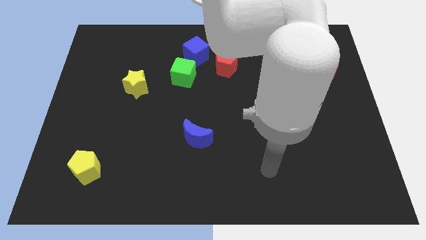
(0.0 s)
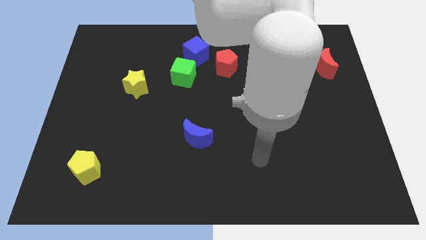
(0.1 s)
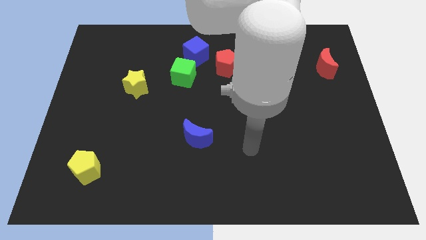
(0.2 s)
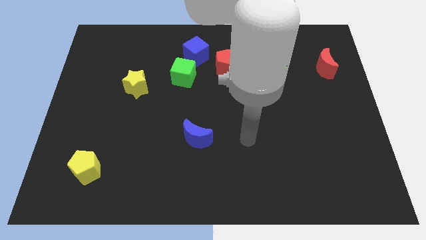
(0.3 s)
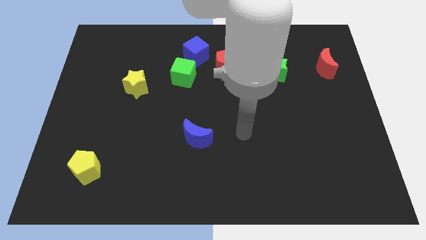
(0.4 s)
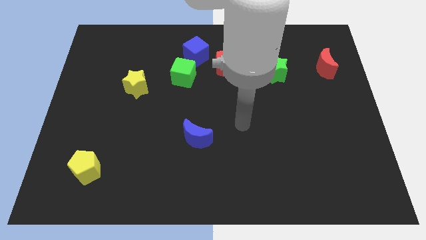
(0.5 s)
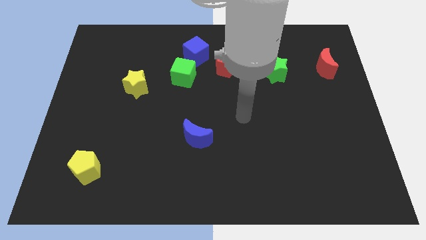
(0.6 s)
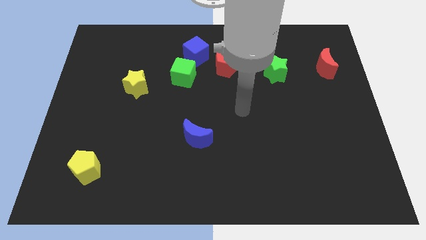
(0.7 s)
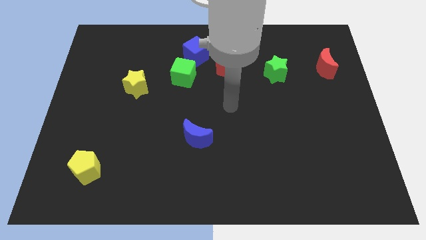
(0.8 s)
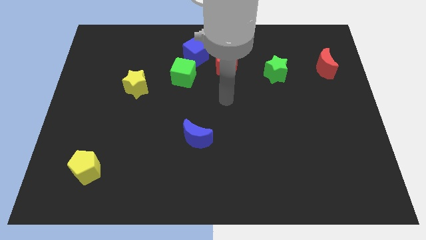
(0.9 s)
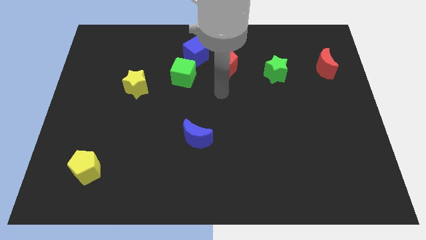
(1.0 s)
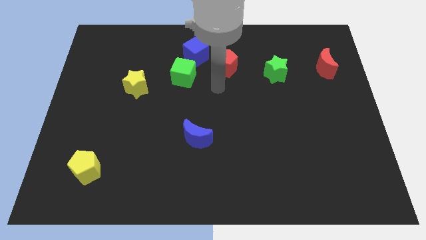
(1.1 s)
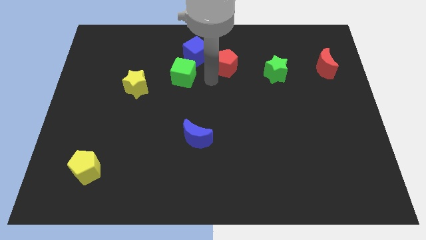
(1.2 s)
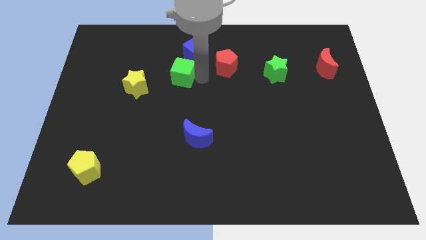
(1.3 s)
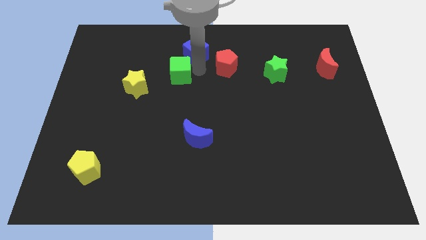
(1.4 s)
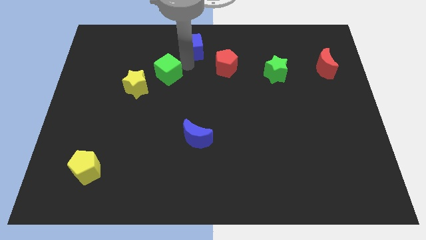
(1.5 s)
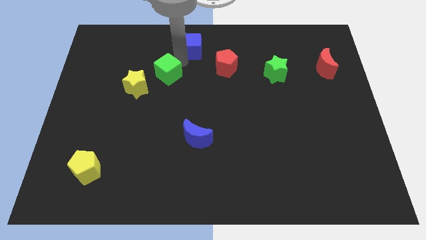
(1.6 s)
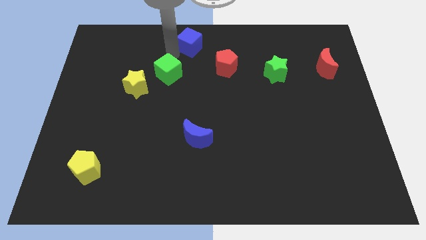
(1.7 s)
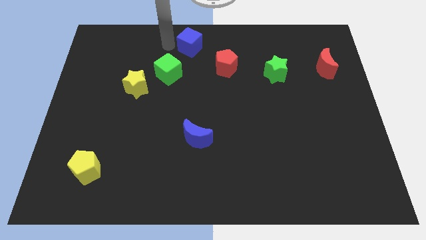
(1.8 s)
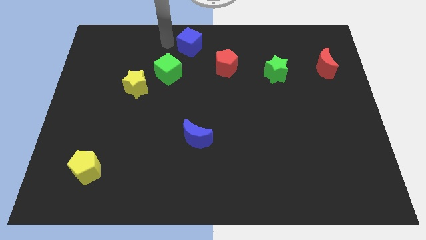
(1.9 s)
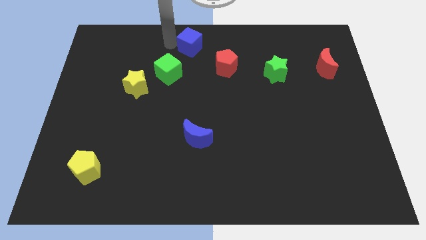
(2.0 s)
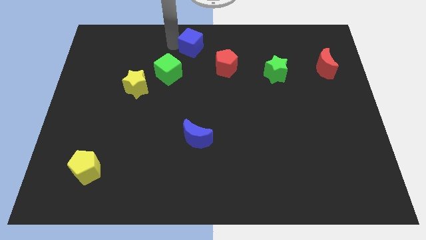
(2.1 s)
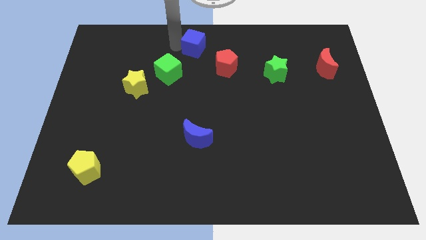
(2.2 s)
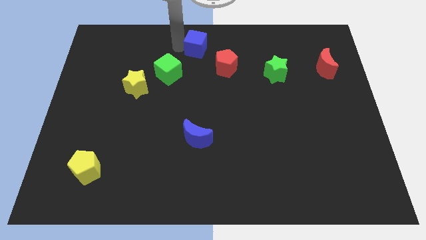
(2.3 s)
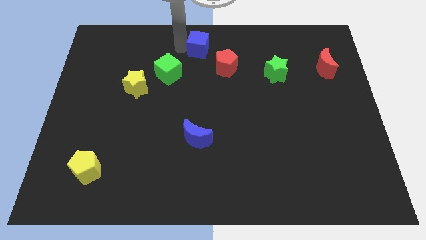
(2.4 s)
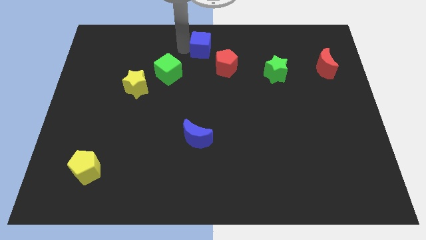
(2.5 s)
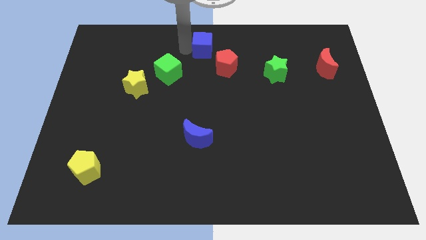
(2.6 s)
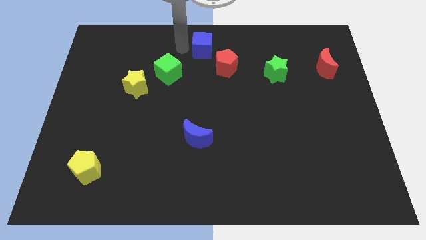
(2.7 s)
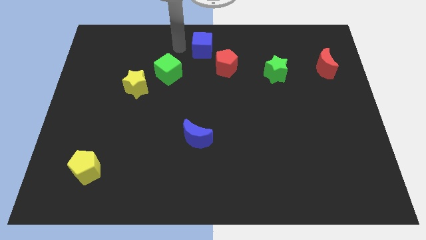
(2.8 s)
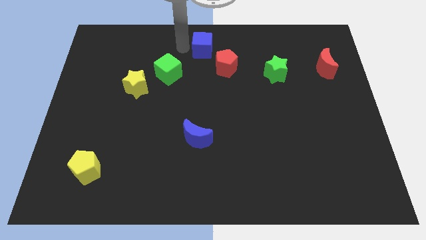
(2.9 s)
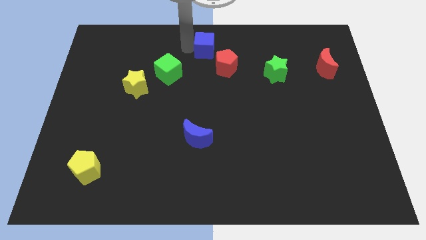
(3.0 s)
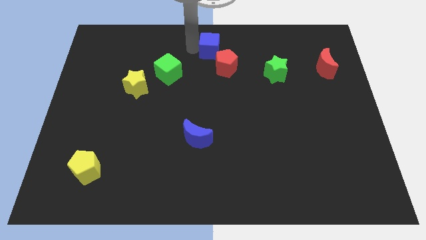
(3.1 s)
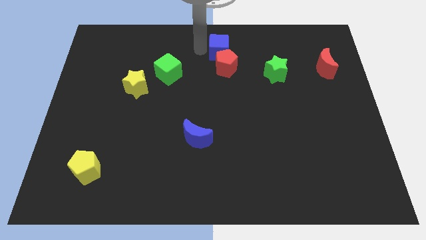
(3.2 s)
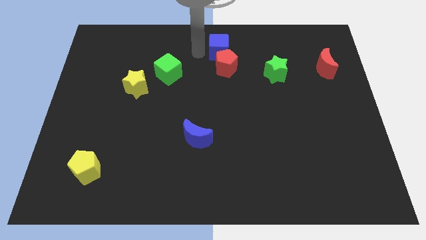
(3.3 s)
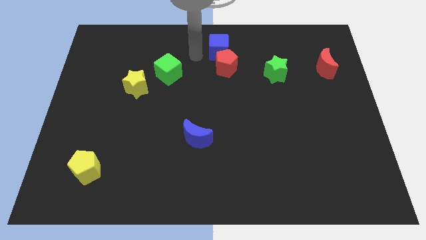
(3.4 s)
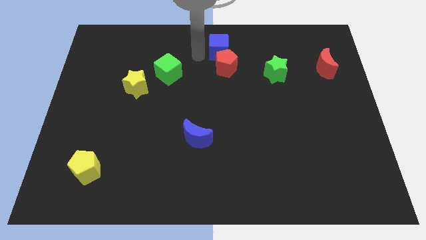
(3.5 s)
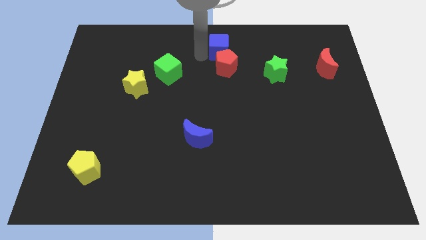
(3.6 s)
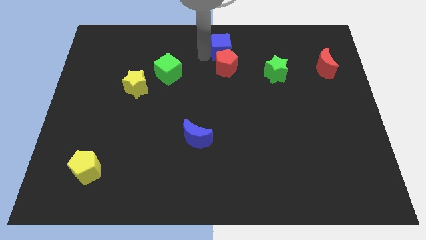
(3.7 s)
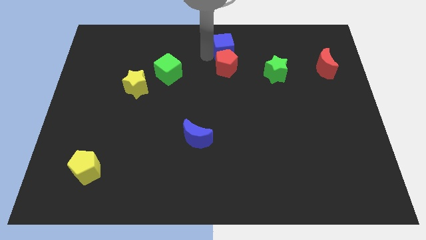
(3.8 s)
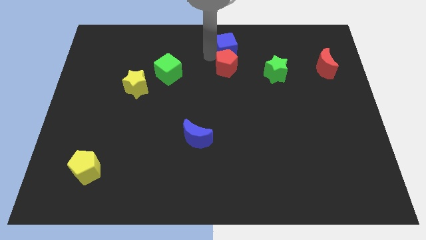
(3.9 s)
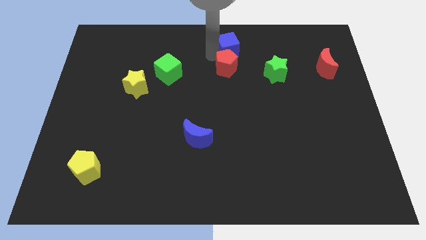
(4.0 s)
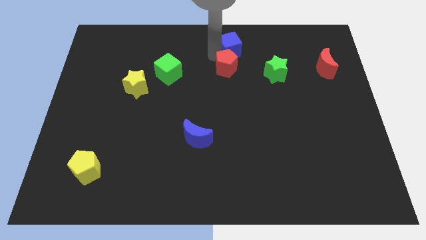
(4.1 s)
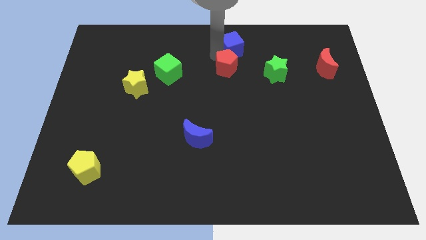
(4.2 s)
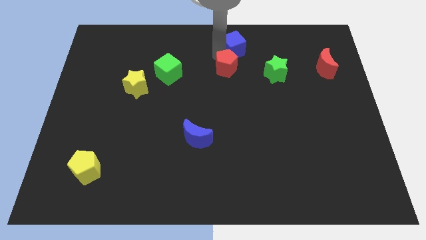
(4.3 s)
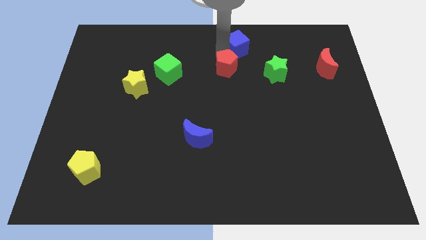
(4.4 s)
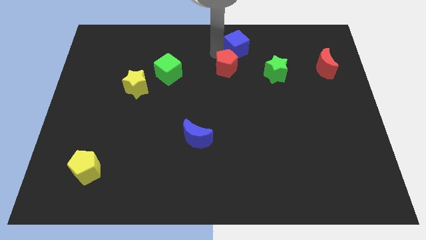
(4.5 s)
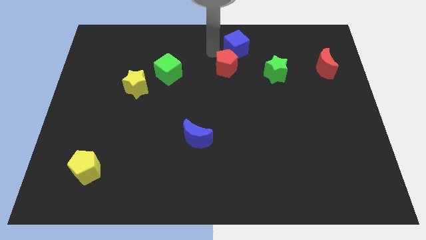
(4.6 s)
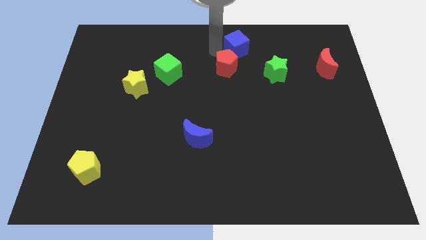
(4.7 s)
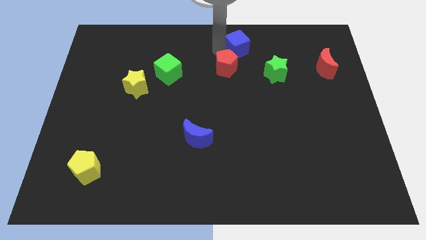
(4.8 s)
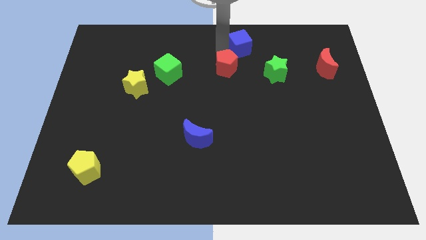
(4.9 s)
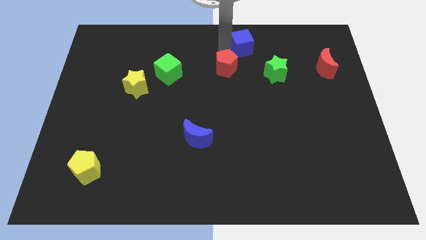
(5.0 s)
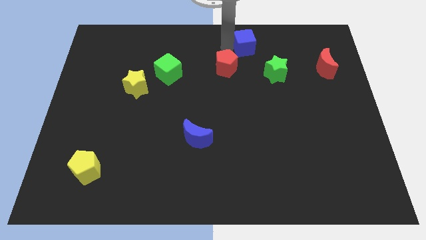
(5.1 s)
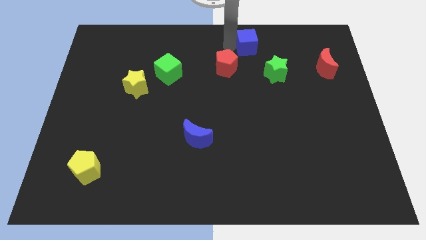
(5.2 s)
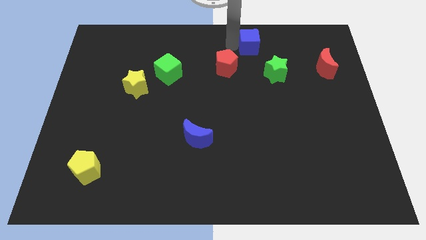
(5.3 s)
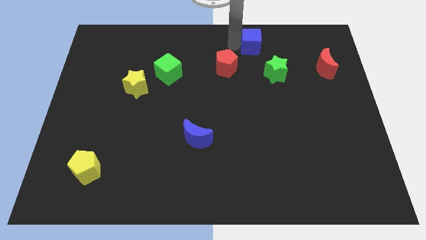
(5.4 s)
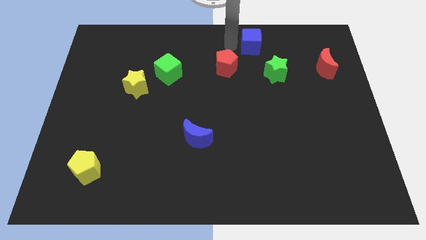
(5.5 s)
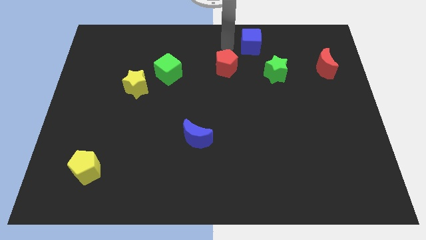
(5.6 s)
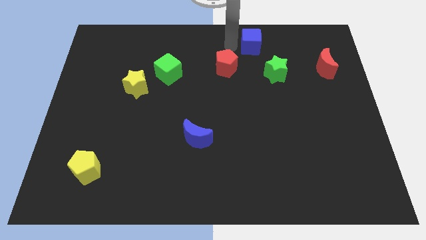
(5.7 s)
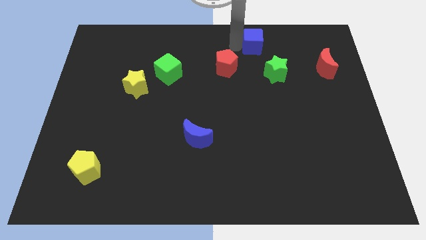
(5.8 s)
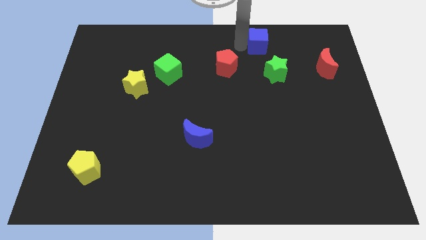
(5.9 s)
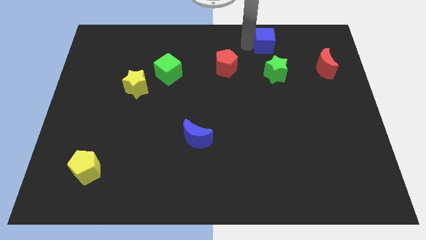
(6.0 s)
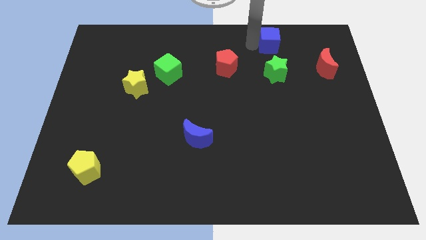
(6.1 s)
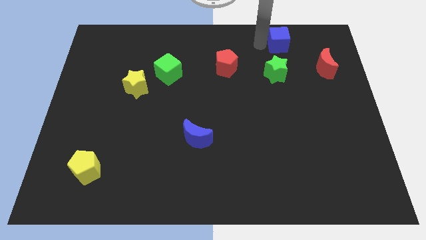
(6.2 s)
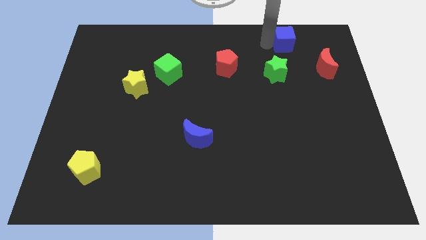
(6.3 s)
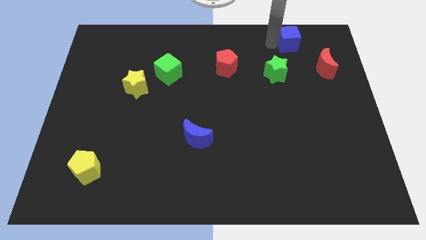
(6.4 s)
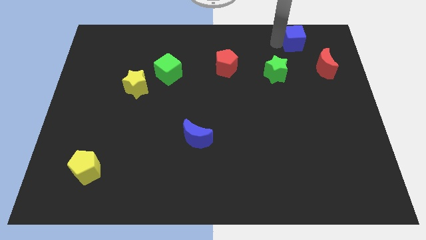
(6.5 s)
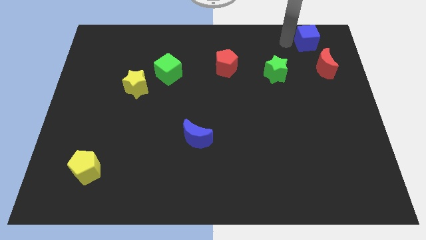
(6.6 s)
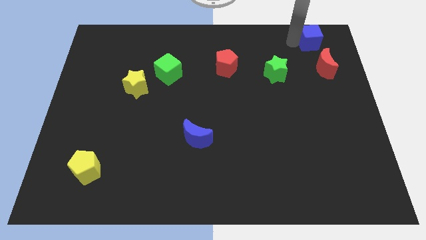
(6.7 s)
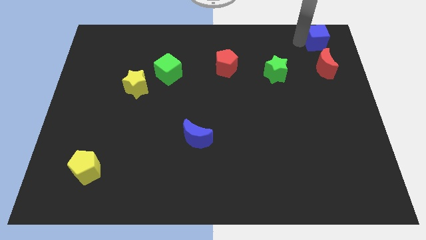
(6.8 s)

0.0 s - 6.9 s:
move the blue cube to the top right
